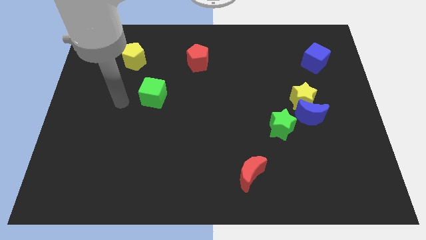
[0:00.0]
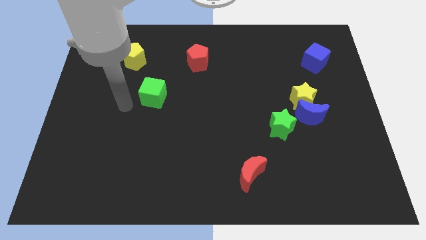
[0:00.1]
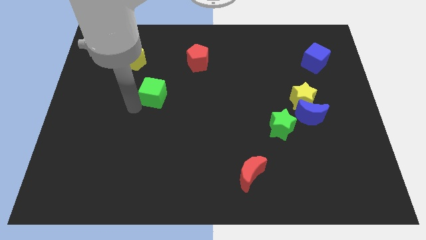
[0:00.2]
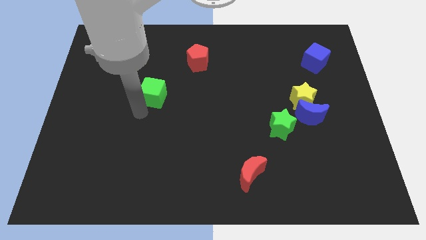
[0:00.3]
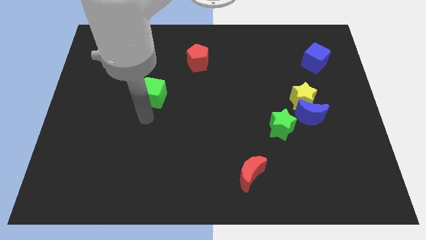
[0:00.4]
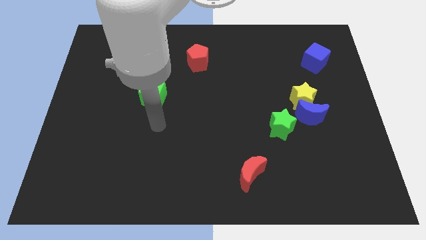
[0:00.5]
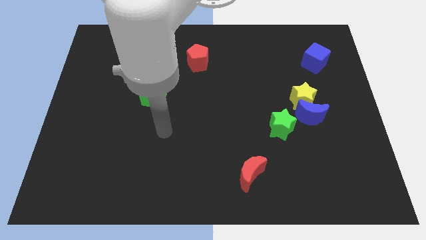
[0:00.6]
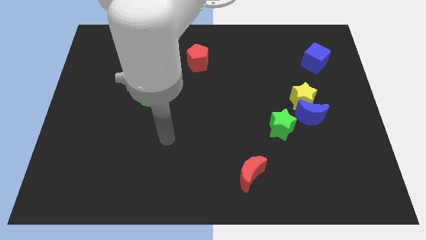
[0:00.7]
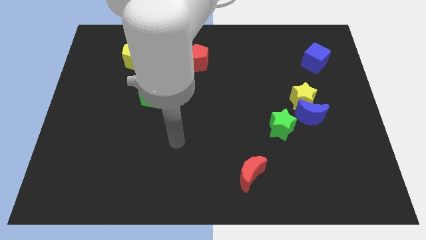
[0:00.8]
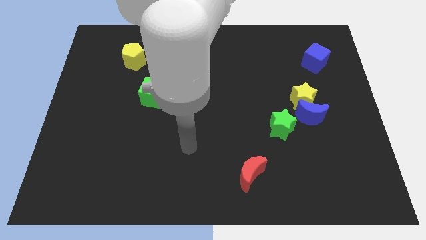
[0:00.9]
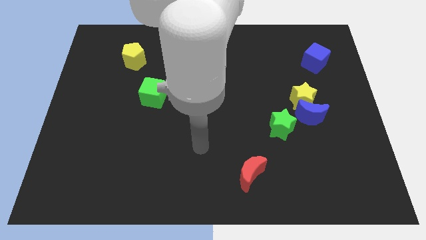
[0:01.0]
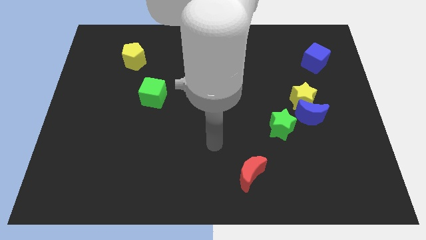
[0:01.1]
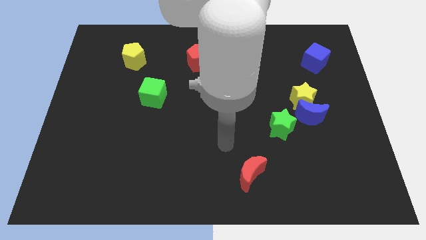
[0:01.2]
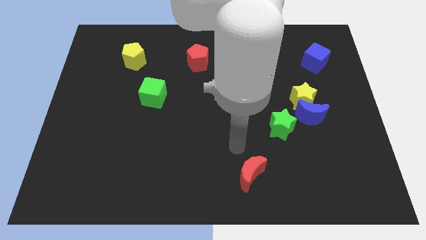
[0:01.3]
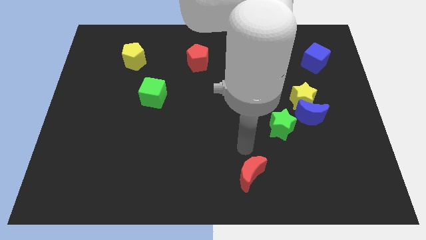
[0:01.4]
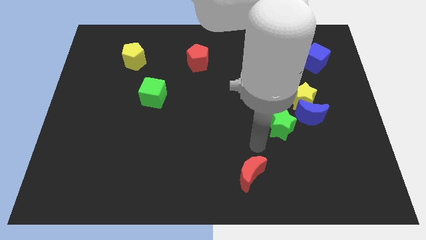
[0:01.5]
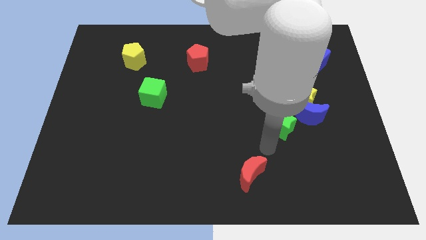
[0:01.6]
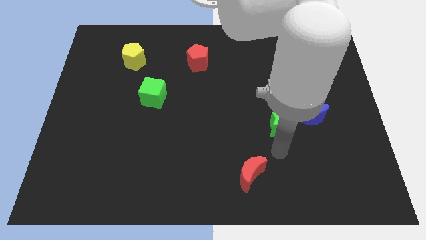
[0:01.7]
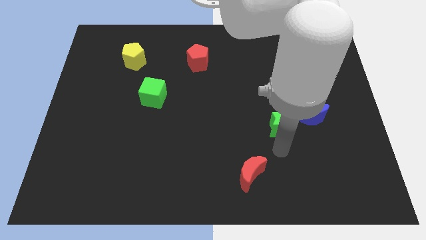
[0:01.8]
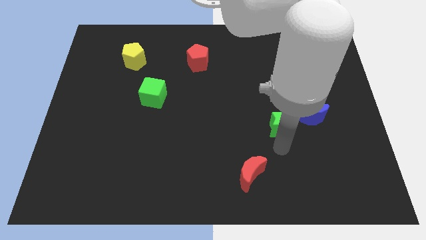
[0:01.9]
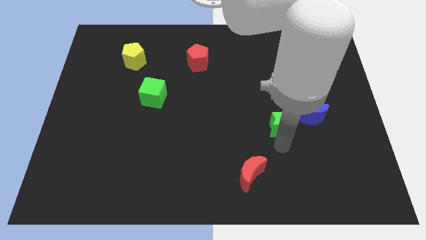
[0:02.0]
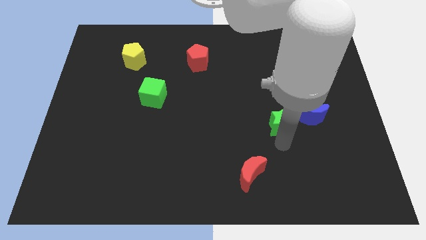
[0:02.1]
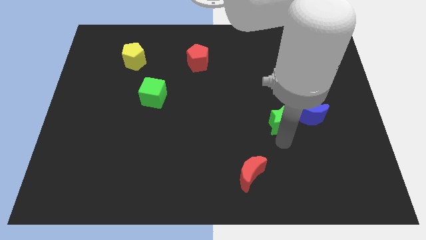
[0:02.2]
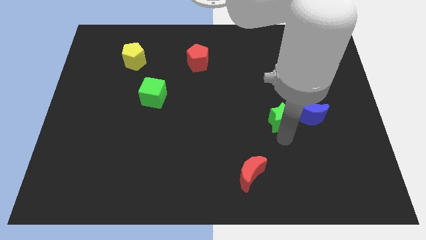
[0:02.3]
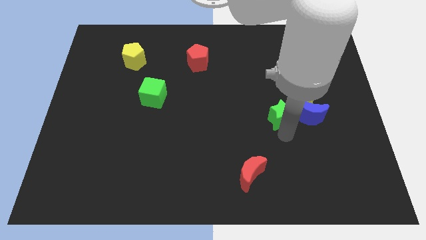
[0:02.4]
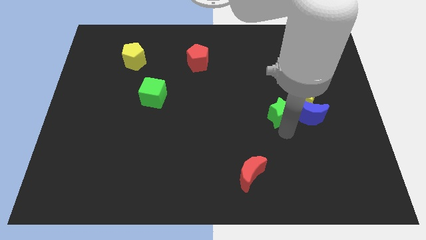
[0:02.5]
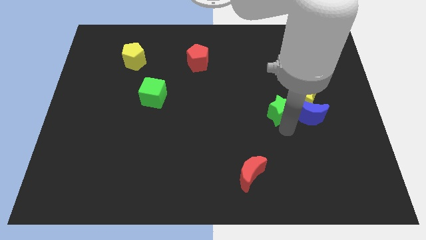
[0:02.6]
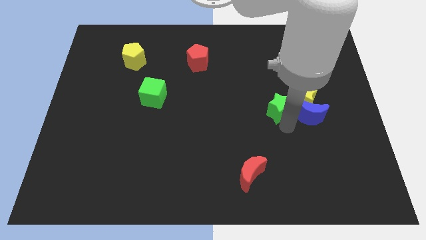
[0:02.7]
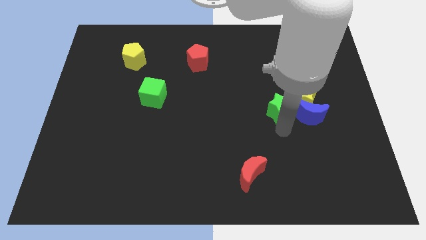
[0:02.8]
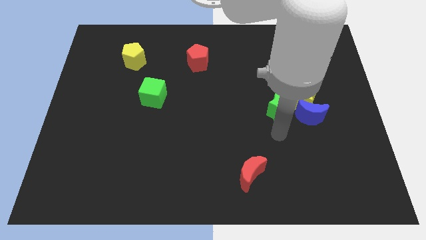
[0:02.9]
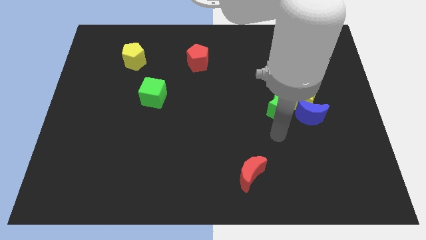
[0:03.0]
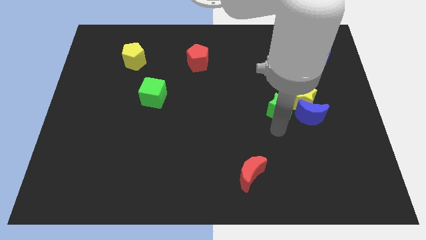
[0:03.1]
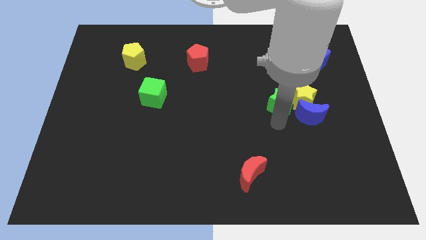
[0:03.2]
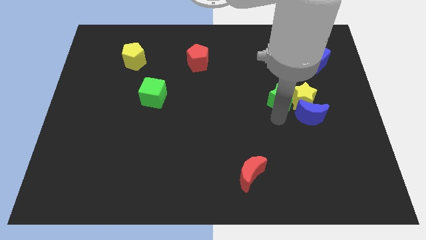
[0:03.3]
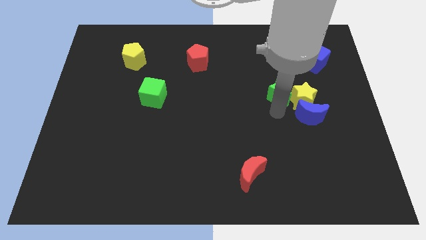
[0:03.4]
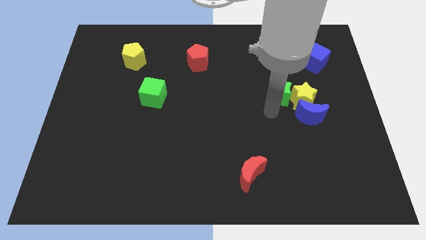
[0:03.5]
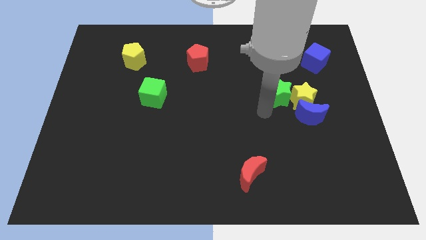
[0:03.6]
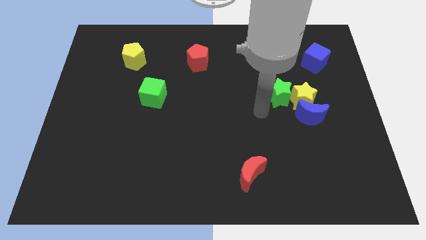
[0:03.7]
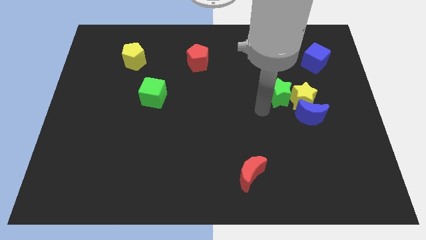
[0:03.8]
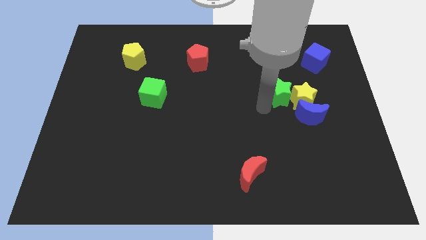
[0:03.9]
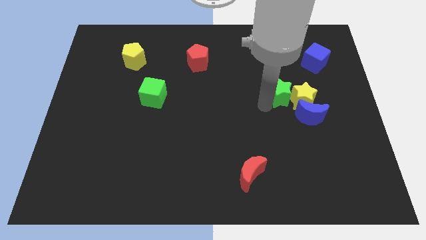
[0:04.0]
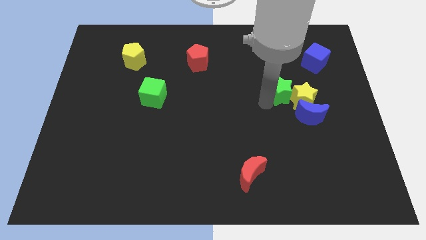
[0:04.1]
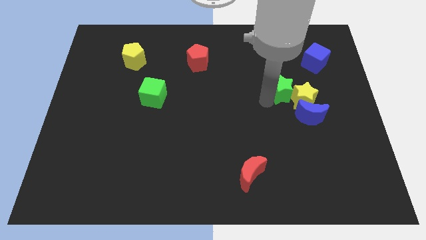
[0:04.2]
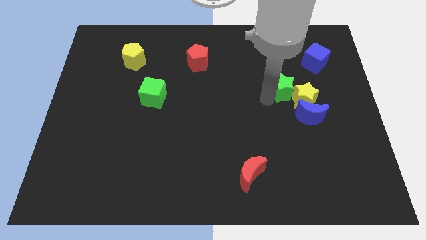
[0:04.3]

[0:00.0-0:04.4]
slightly push the green star diagonally up and to the right

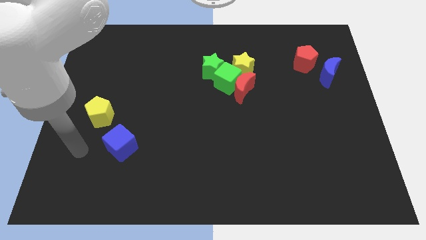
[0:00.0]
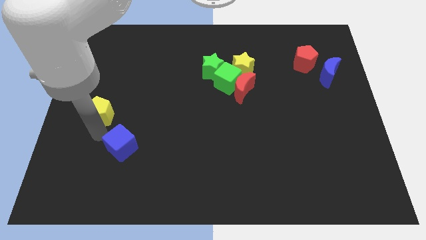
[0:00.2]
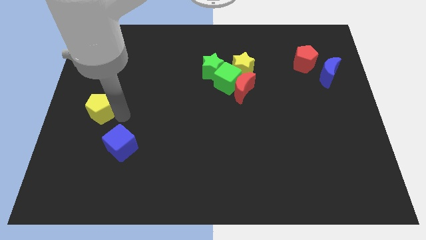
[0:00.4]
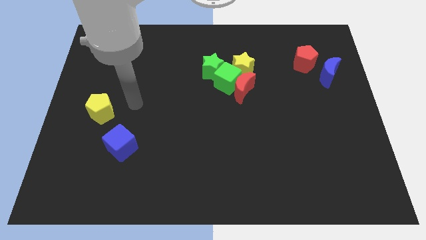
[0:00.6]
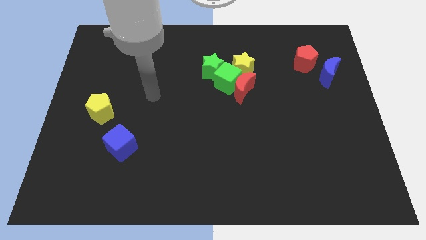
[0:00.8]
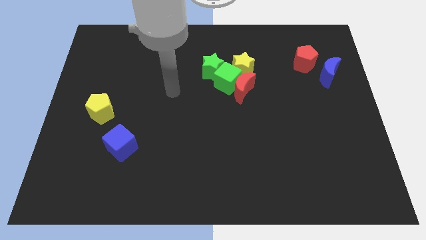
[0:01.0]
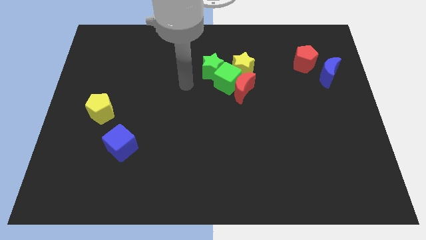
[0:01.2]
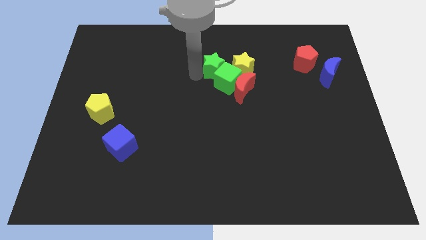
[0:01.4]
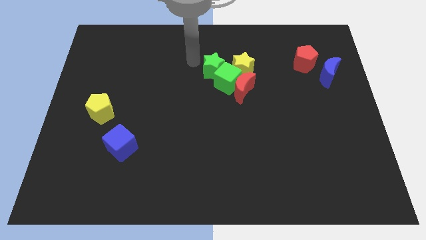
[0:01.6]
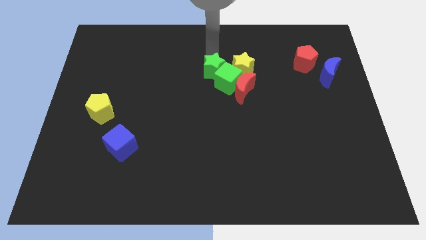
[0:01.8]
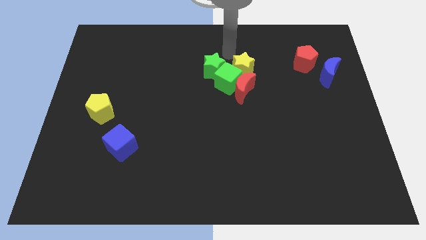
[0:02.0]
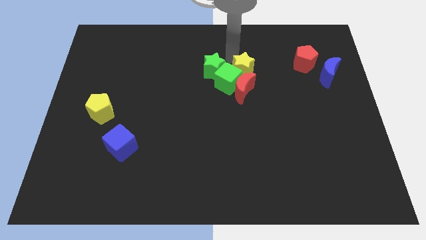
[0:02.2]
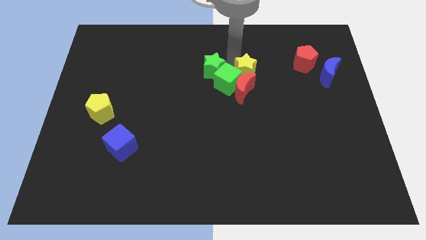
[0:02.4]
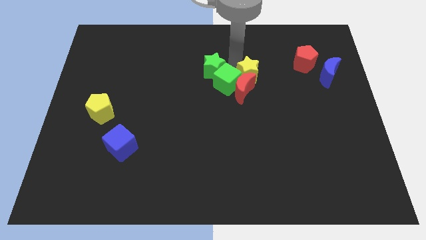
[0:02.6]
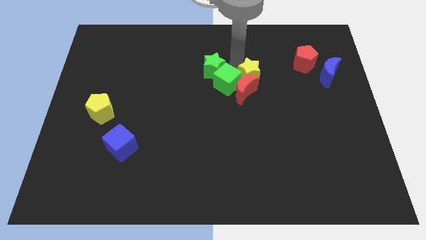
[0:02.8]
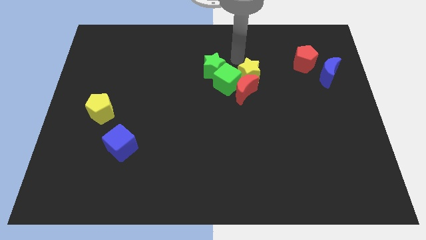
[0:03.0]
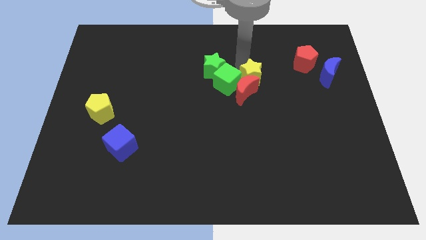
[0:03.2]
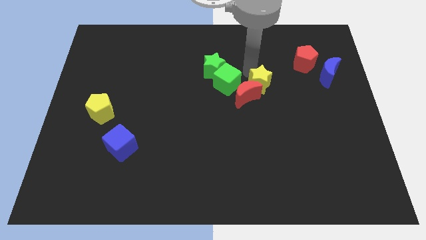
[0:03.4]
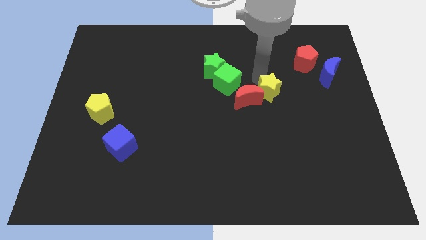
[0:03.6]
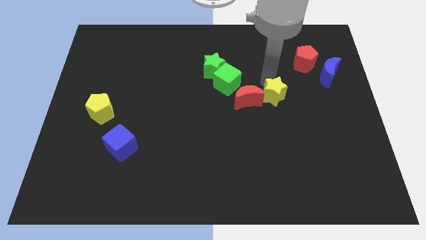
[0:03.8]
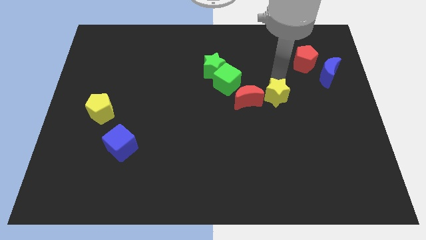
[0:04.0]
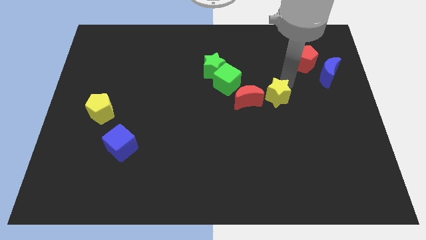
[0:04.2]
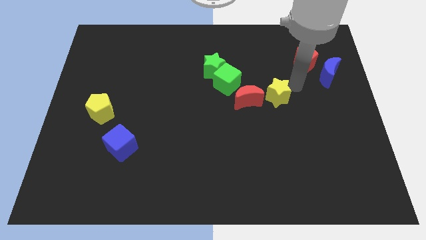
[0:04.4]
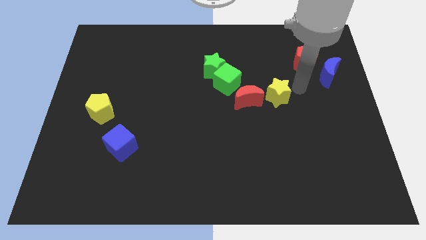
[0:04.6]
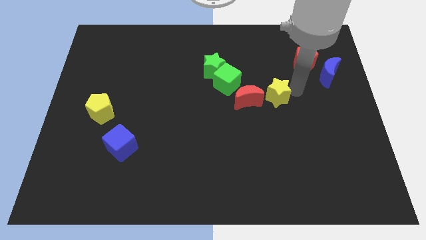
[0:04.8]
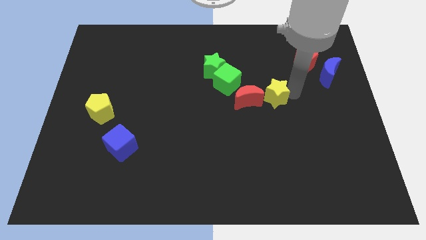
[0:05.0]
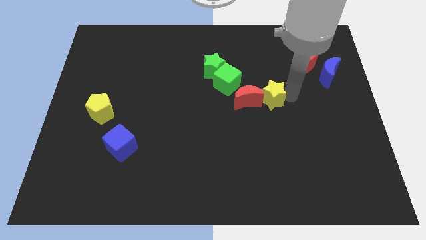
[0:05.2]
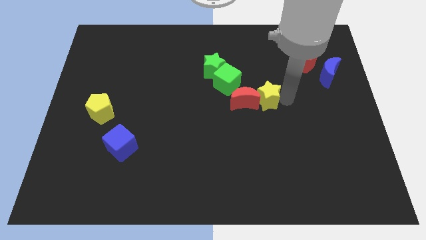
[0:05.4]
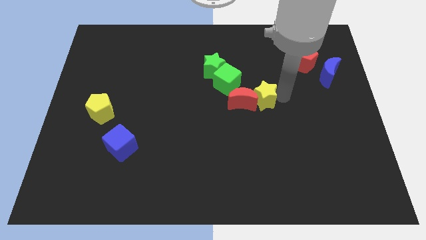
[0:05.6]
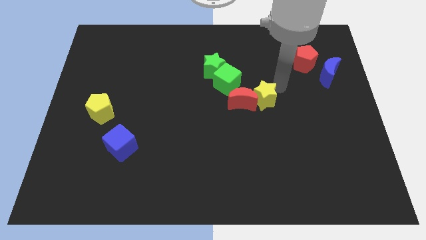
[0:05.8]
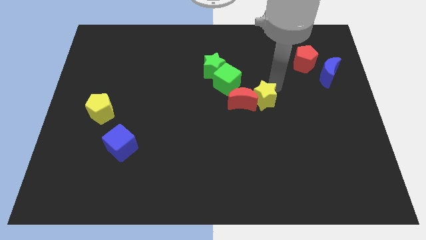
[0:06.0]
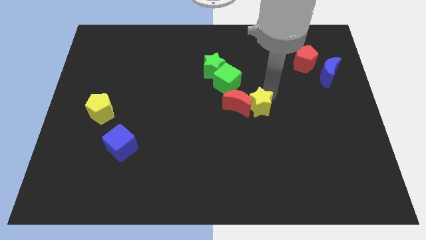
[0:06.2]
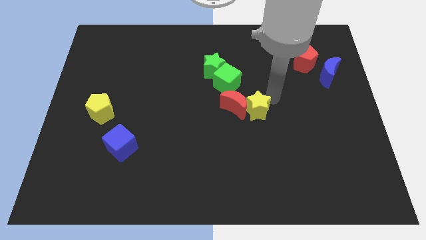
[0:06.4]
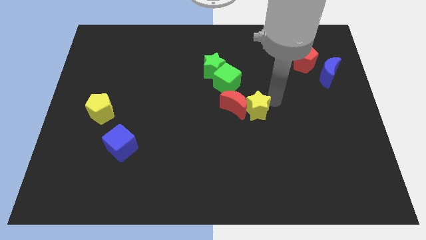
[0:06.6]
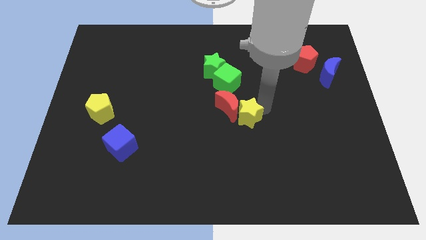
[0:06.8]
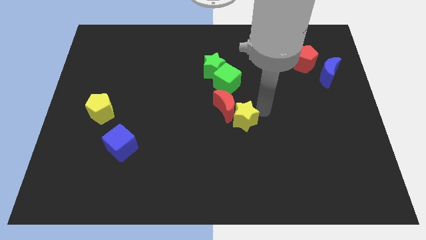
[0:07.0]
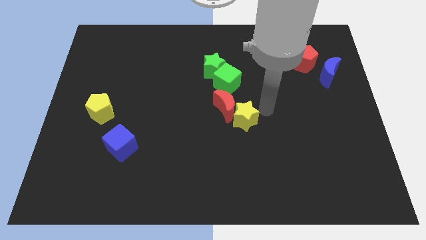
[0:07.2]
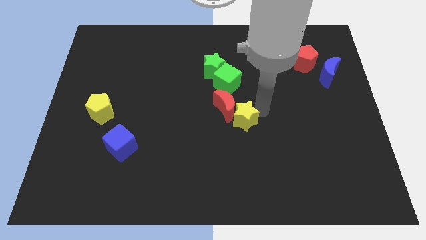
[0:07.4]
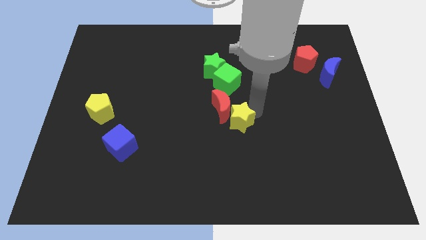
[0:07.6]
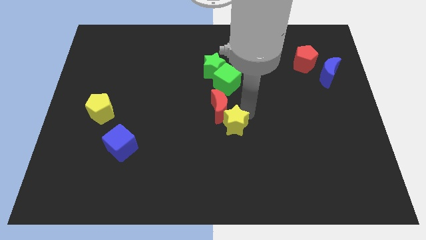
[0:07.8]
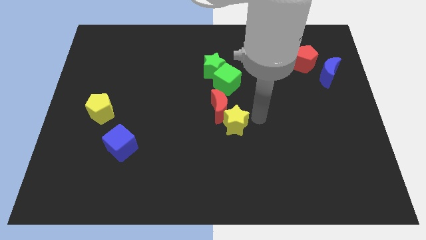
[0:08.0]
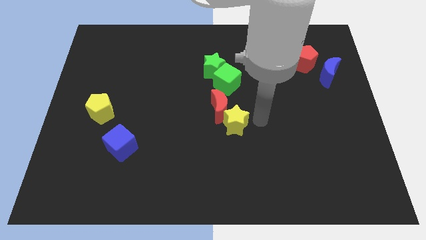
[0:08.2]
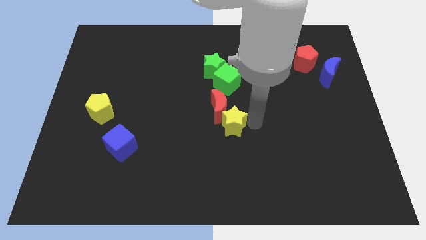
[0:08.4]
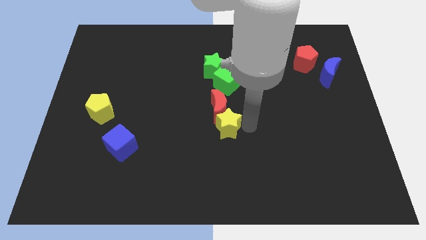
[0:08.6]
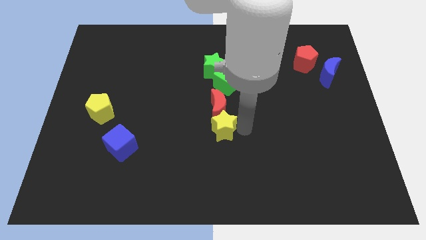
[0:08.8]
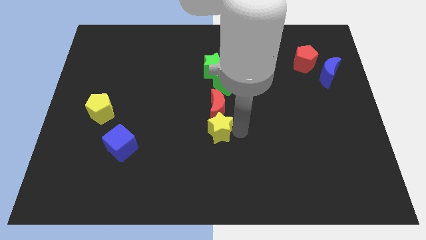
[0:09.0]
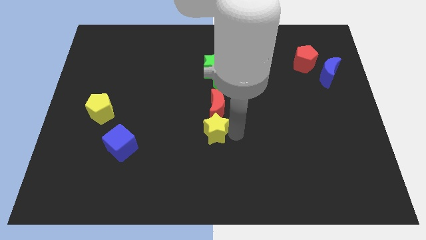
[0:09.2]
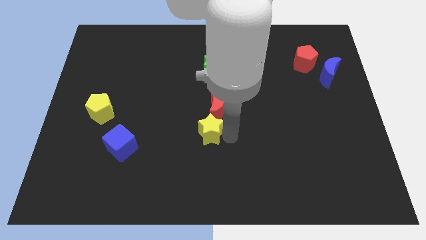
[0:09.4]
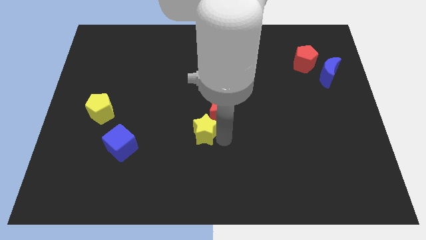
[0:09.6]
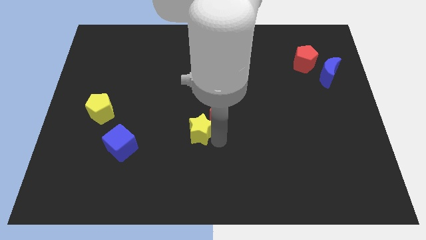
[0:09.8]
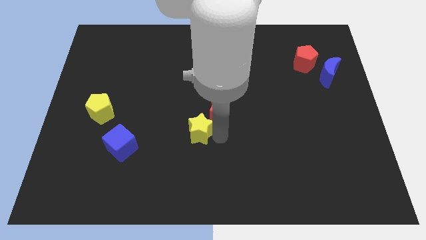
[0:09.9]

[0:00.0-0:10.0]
slide the yellow star downwards and to the left diagonally
